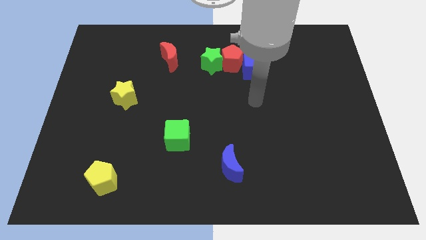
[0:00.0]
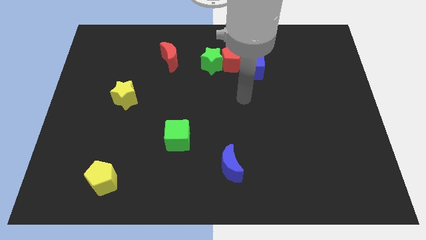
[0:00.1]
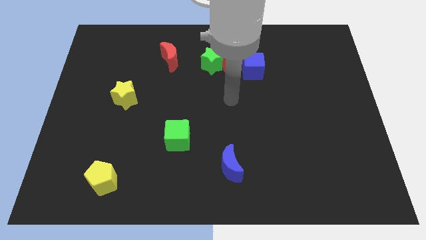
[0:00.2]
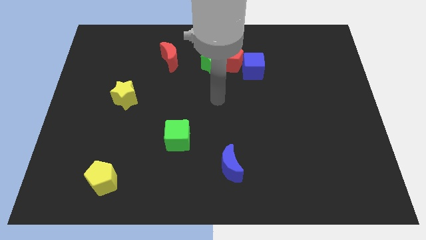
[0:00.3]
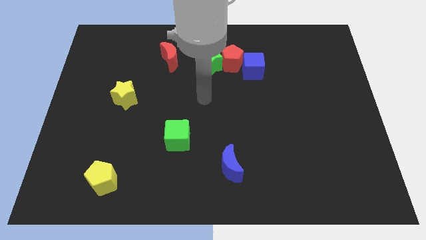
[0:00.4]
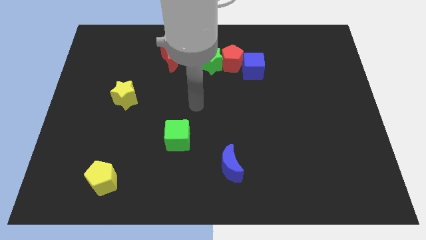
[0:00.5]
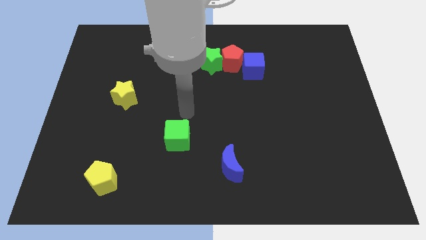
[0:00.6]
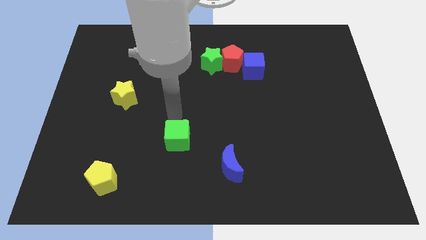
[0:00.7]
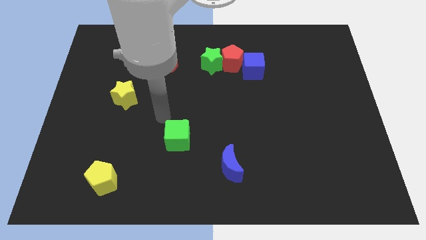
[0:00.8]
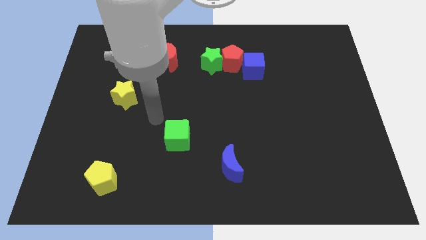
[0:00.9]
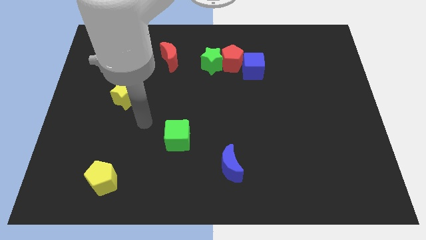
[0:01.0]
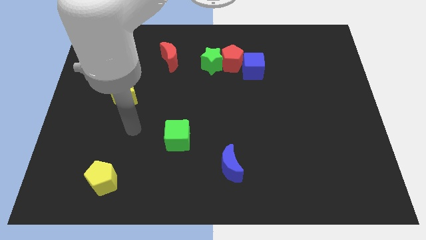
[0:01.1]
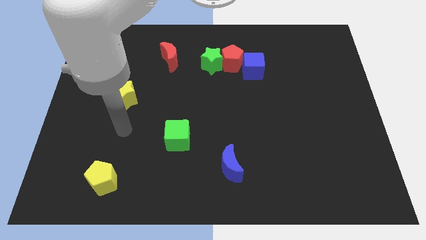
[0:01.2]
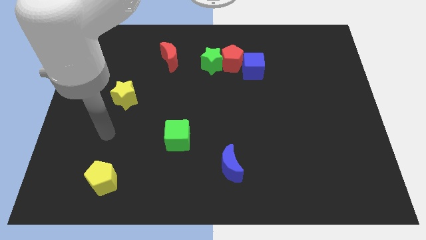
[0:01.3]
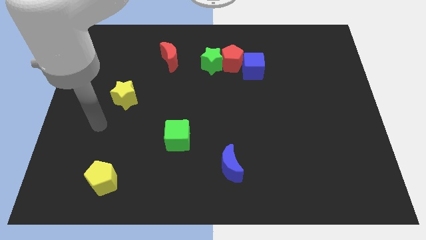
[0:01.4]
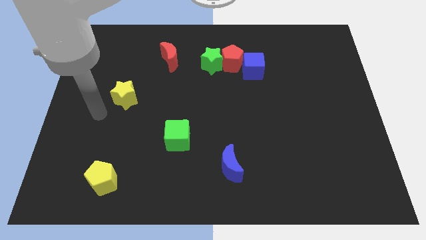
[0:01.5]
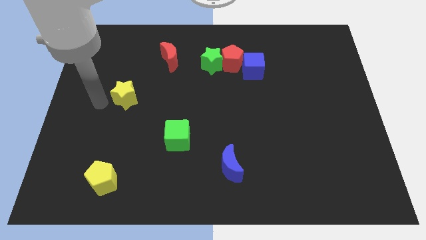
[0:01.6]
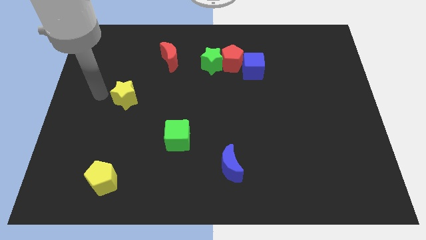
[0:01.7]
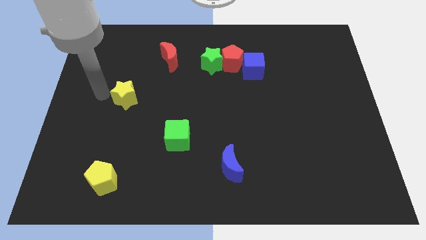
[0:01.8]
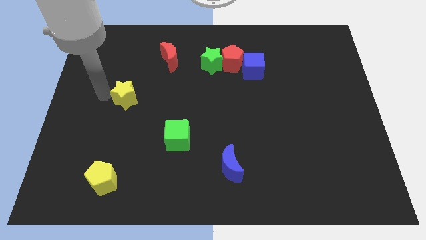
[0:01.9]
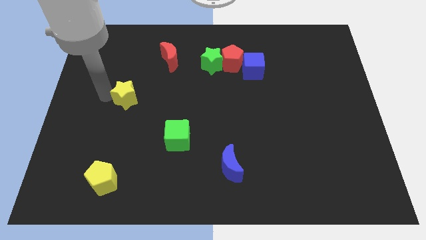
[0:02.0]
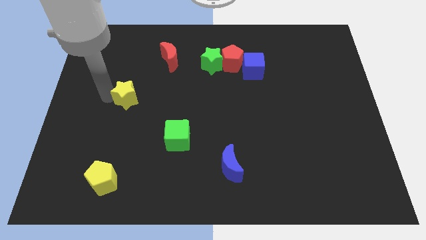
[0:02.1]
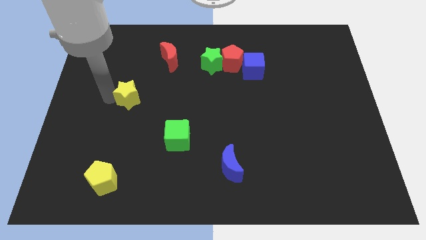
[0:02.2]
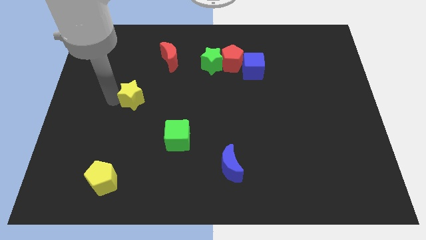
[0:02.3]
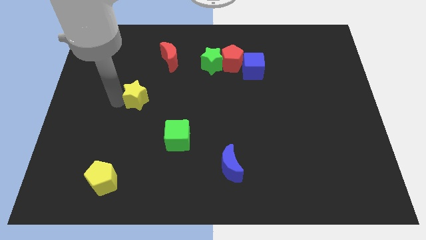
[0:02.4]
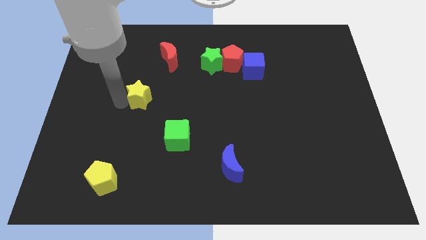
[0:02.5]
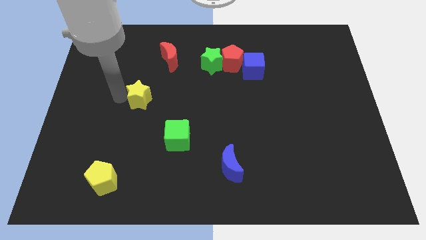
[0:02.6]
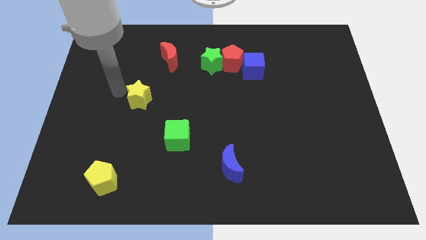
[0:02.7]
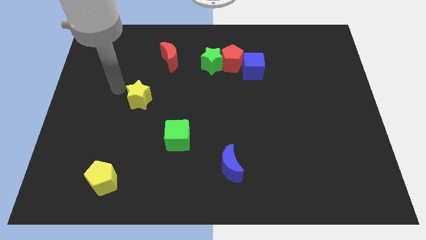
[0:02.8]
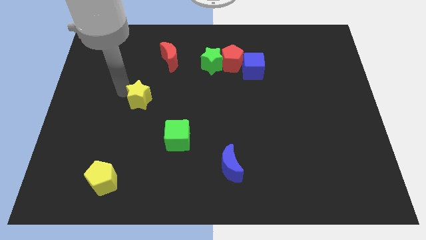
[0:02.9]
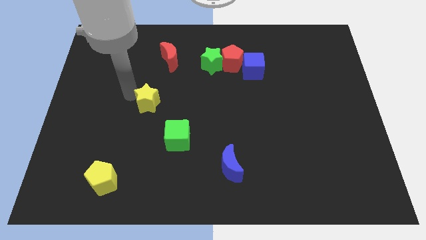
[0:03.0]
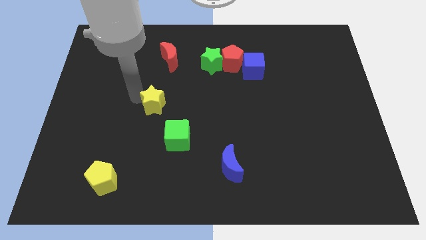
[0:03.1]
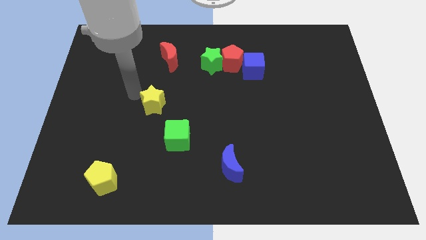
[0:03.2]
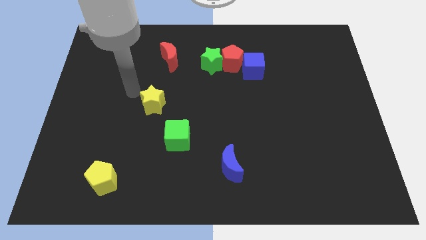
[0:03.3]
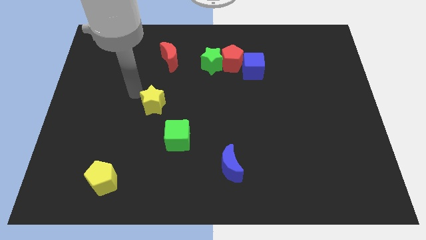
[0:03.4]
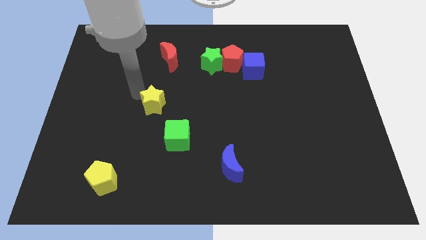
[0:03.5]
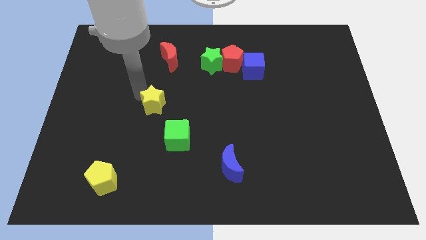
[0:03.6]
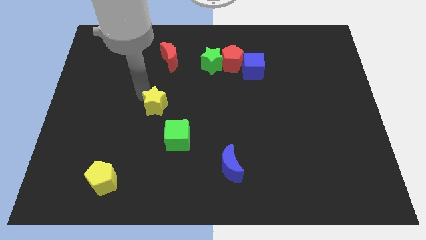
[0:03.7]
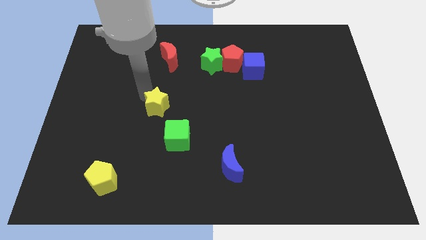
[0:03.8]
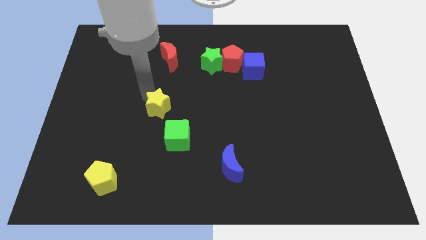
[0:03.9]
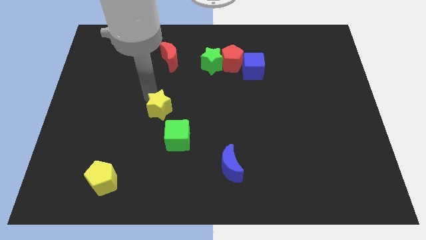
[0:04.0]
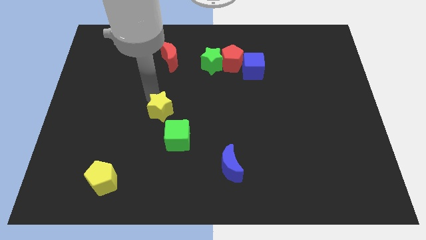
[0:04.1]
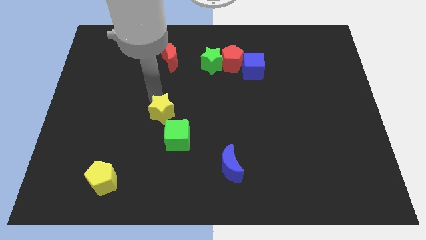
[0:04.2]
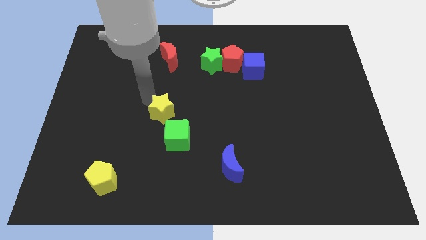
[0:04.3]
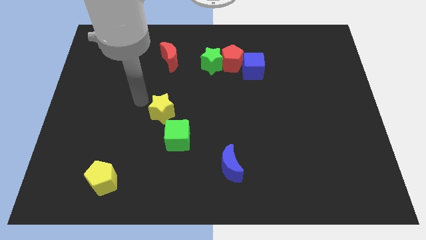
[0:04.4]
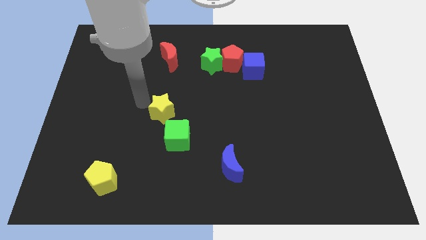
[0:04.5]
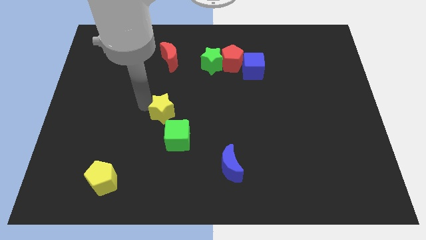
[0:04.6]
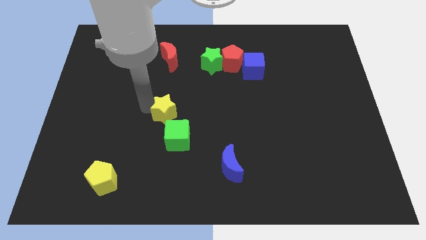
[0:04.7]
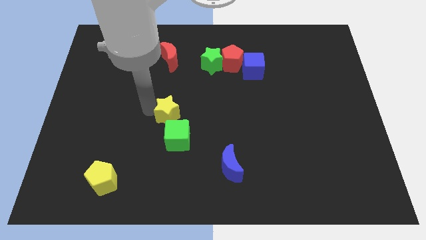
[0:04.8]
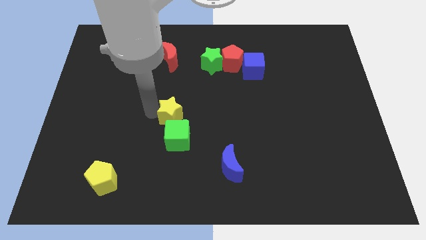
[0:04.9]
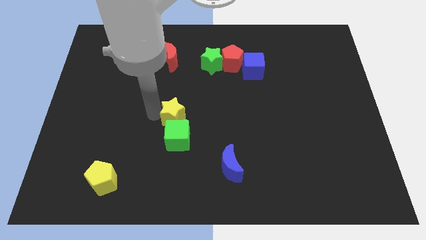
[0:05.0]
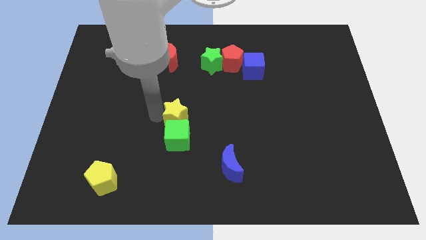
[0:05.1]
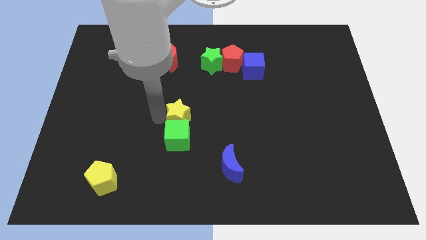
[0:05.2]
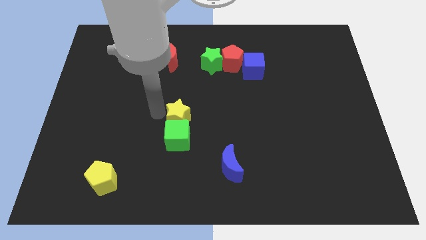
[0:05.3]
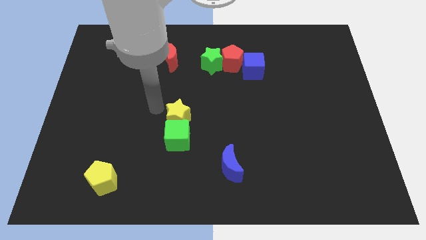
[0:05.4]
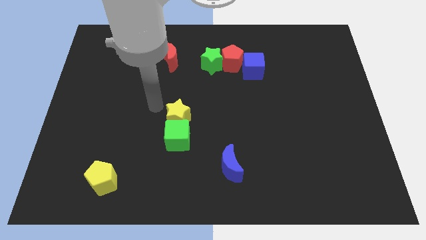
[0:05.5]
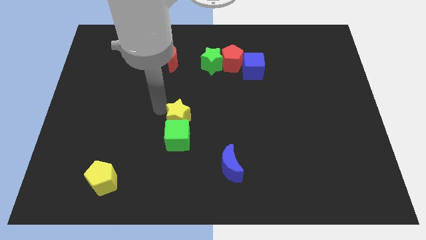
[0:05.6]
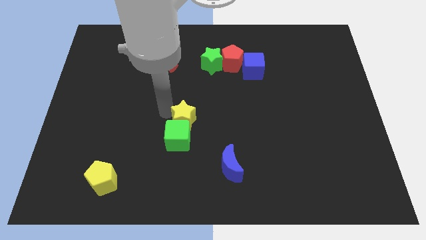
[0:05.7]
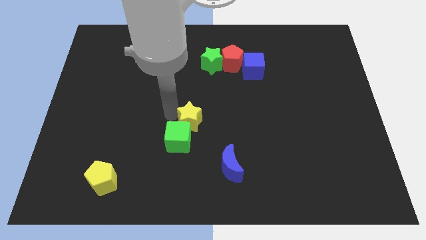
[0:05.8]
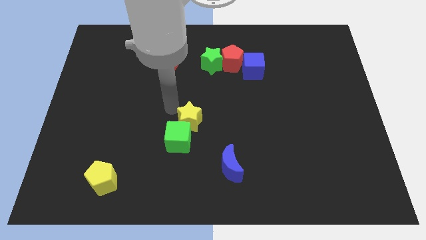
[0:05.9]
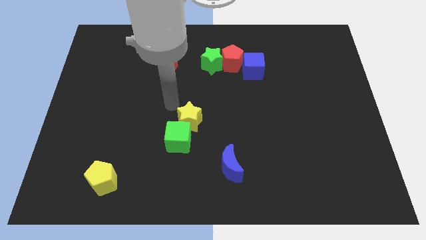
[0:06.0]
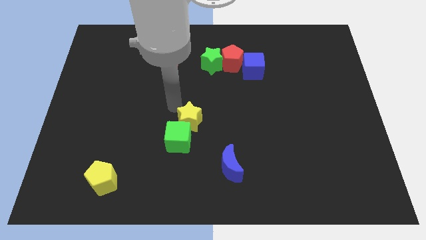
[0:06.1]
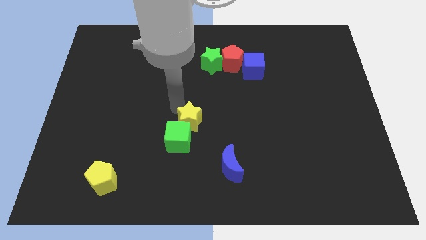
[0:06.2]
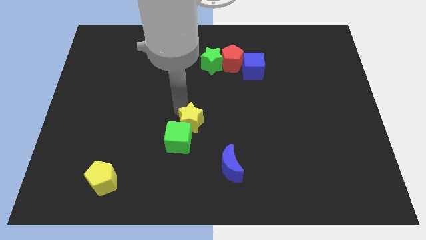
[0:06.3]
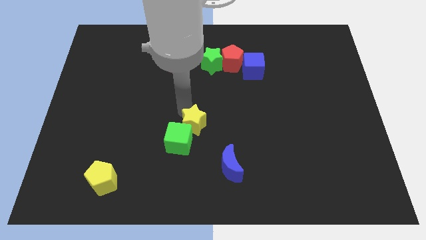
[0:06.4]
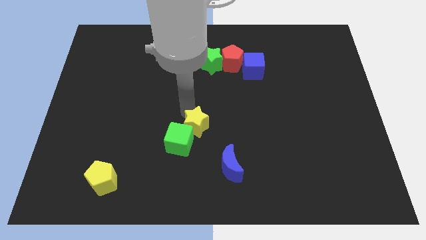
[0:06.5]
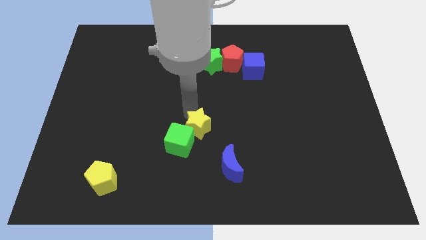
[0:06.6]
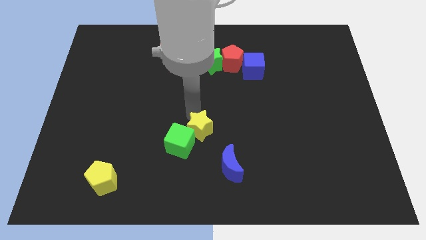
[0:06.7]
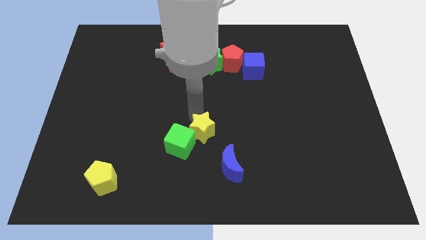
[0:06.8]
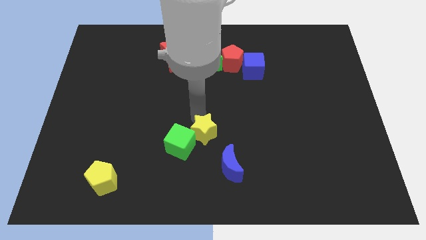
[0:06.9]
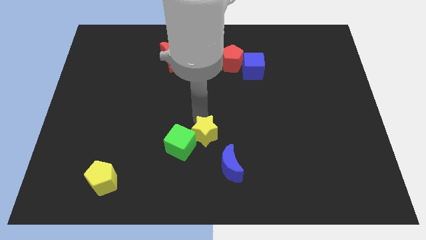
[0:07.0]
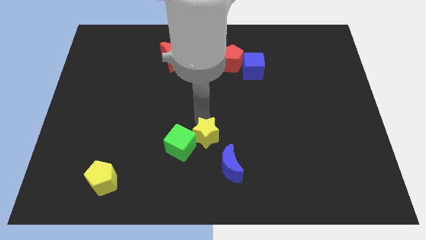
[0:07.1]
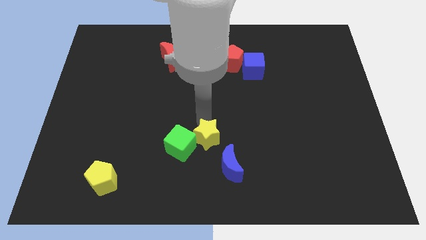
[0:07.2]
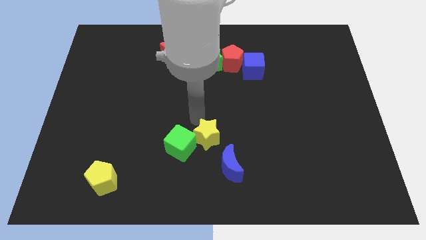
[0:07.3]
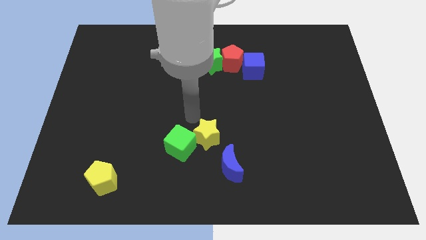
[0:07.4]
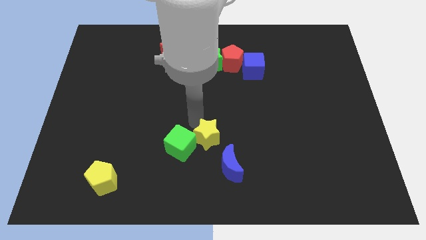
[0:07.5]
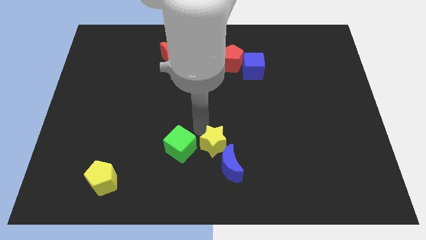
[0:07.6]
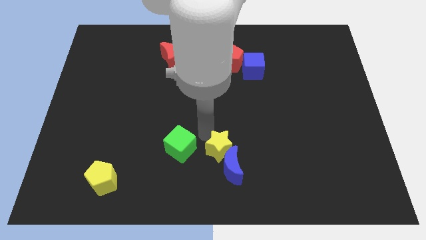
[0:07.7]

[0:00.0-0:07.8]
slide the yellow star to the blue moon
